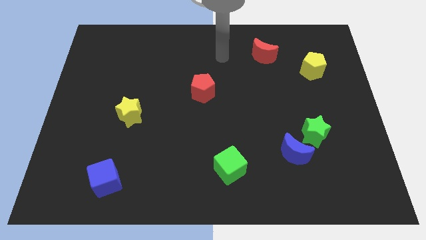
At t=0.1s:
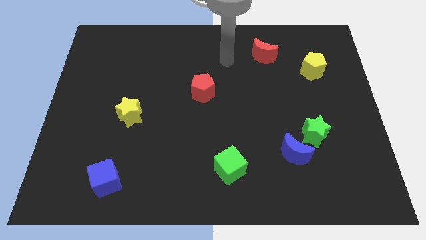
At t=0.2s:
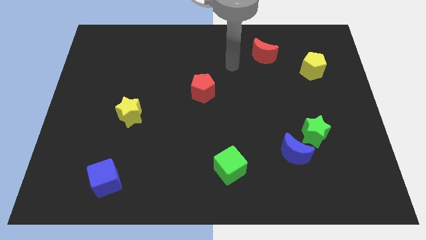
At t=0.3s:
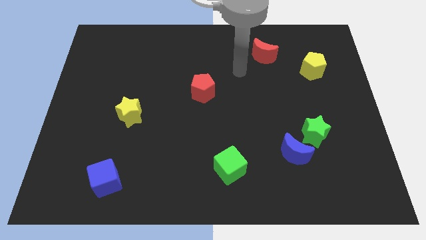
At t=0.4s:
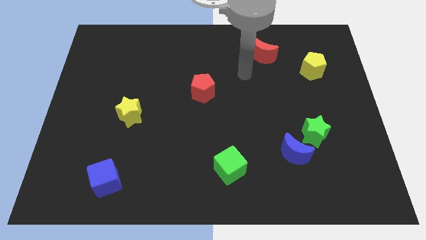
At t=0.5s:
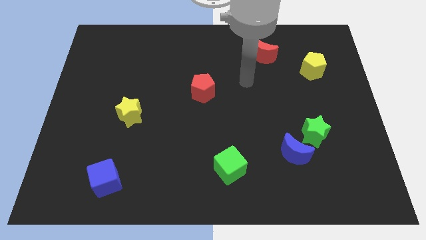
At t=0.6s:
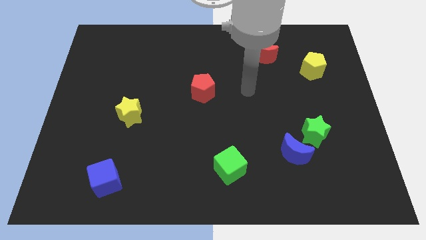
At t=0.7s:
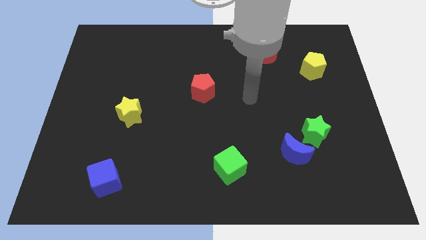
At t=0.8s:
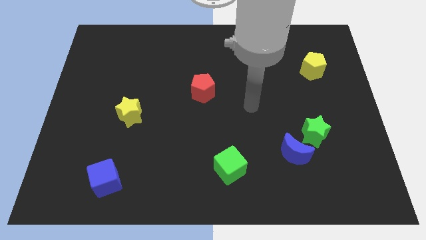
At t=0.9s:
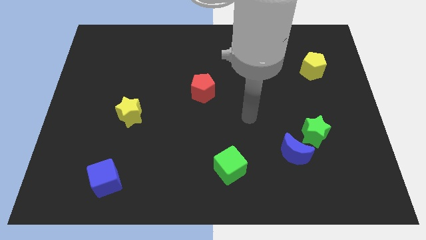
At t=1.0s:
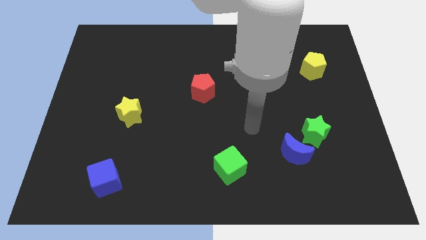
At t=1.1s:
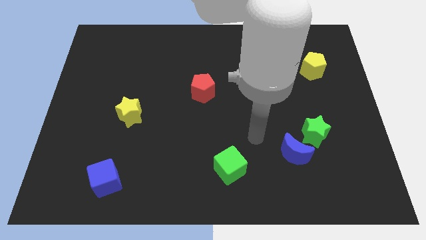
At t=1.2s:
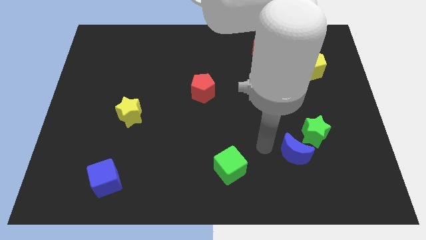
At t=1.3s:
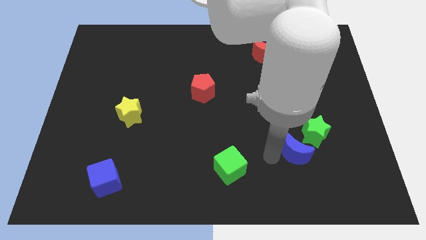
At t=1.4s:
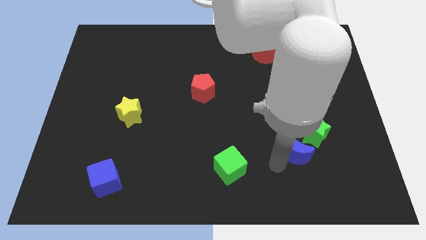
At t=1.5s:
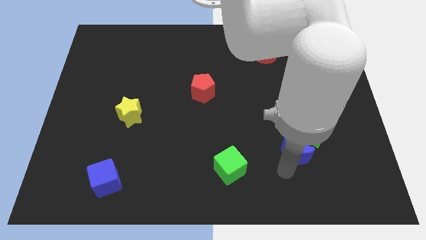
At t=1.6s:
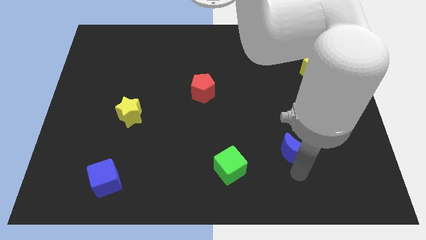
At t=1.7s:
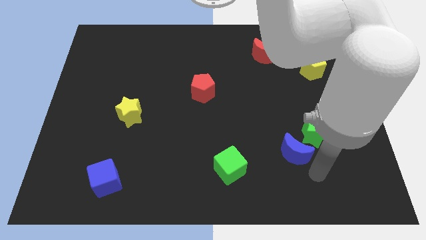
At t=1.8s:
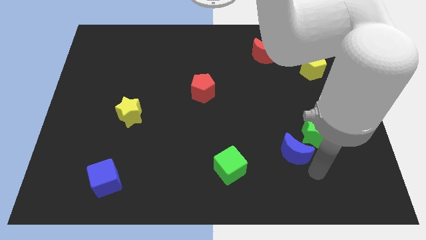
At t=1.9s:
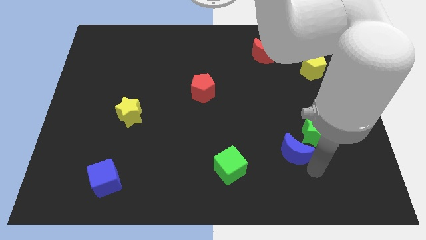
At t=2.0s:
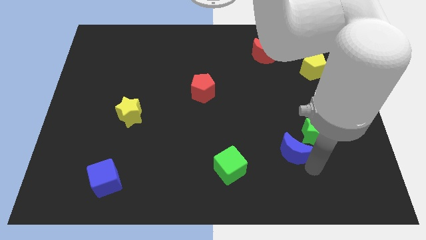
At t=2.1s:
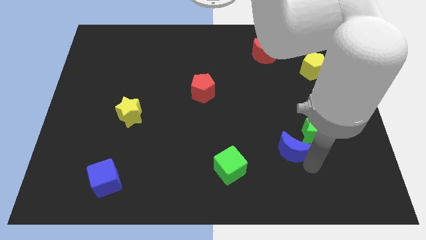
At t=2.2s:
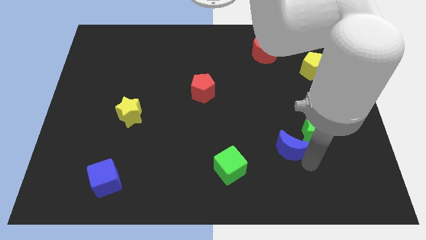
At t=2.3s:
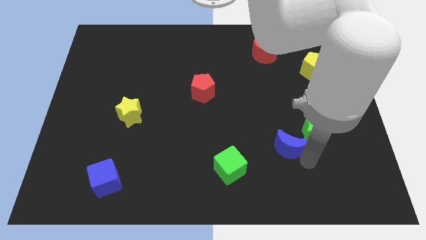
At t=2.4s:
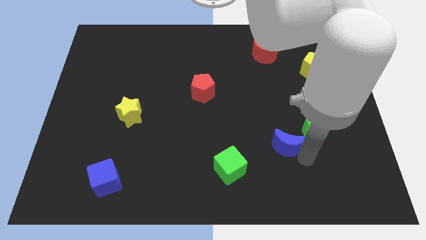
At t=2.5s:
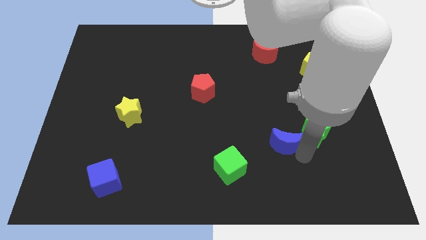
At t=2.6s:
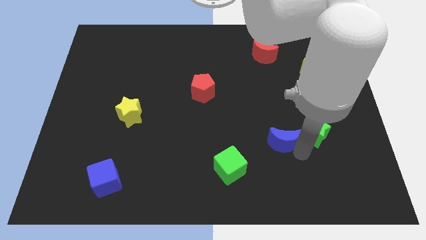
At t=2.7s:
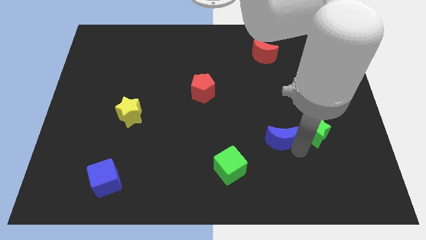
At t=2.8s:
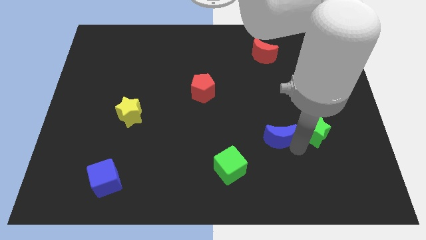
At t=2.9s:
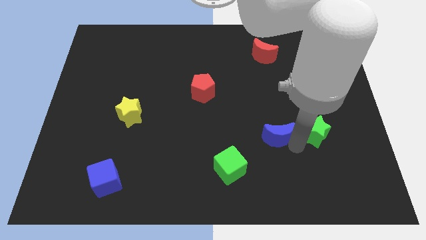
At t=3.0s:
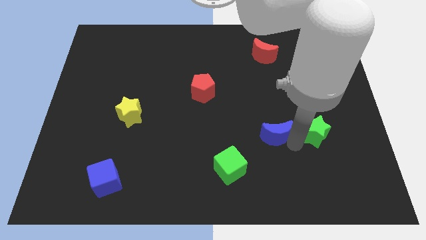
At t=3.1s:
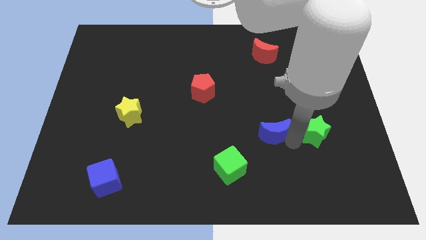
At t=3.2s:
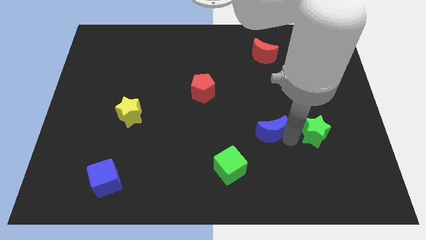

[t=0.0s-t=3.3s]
push the blue moon upwards and left diagonally a bit

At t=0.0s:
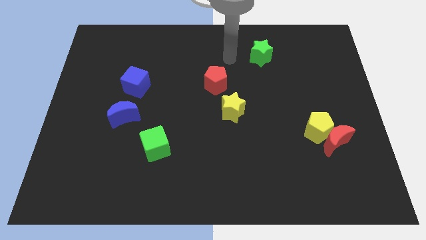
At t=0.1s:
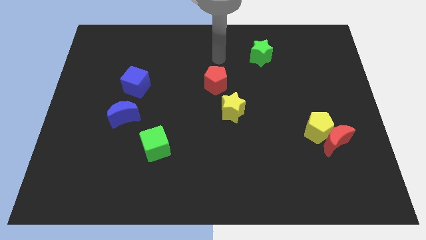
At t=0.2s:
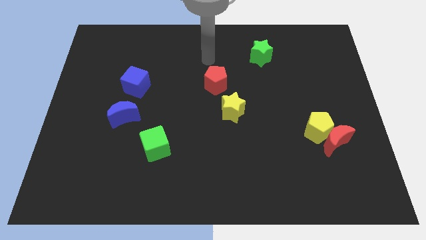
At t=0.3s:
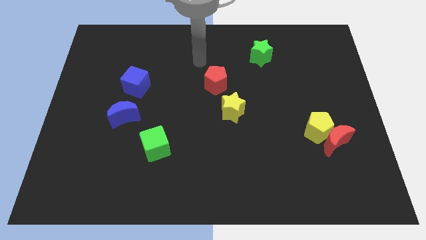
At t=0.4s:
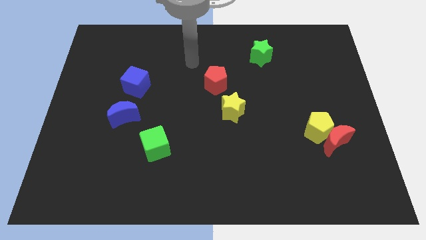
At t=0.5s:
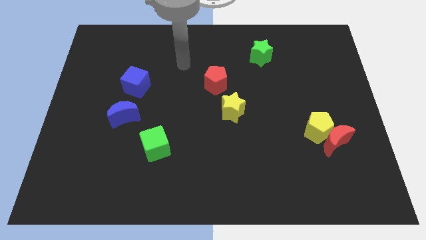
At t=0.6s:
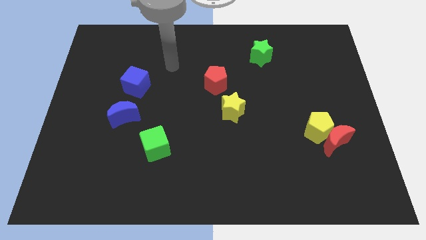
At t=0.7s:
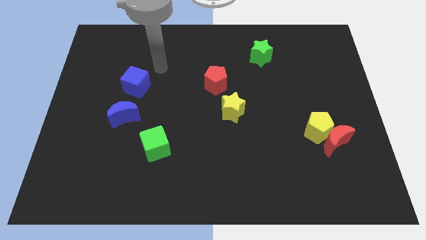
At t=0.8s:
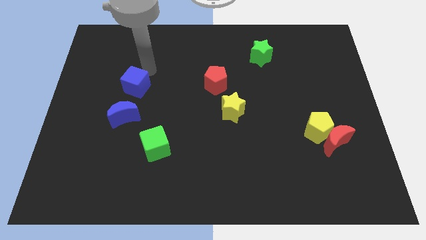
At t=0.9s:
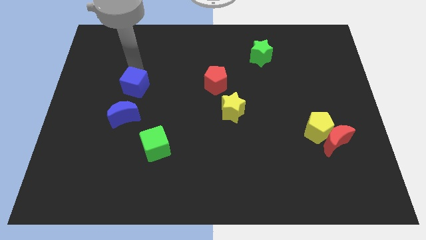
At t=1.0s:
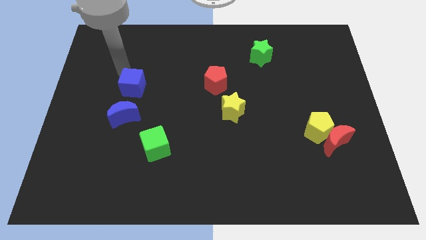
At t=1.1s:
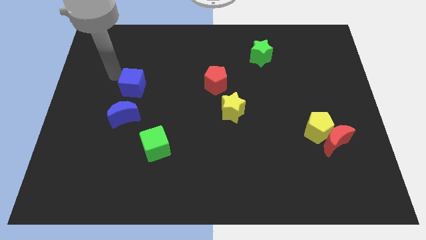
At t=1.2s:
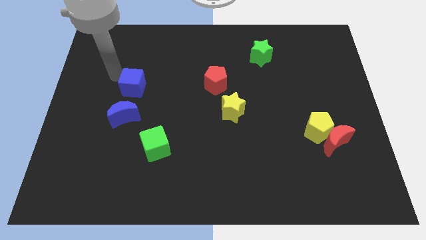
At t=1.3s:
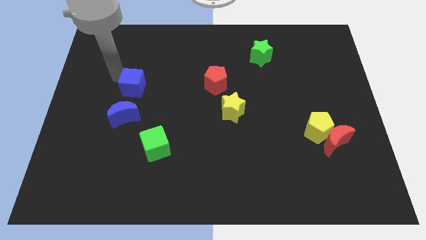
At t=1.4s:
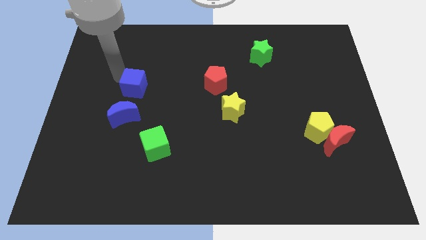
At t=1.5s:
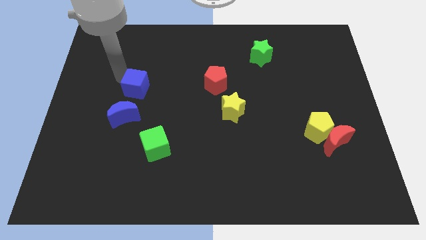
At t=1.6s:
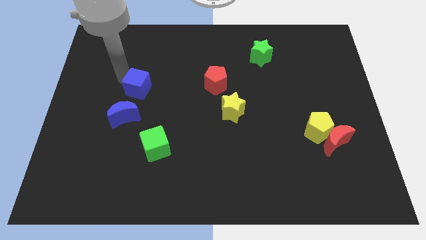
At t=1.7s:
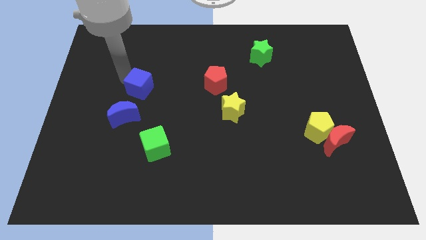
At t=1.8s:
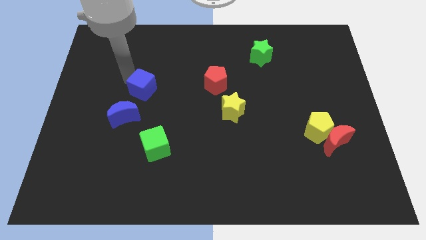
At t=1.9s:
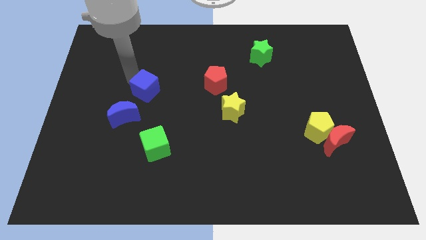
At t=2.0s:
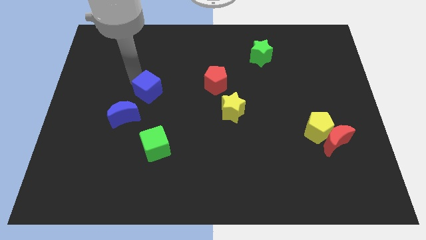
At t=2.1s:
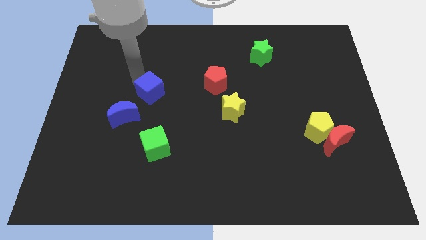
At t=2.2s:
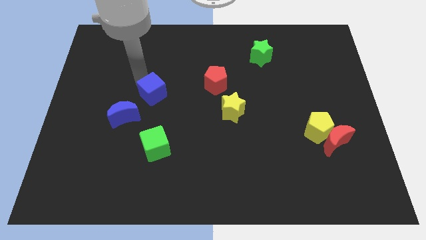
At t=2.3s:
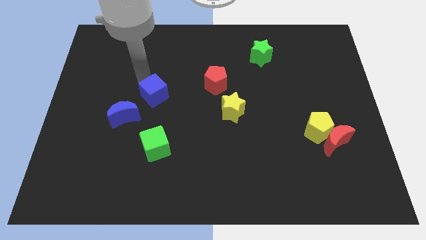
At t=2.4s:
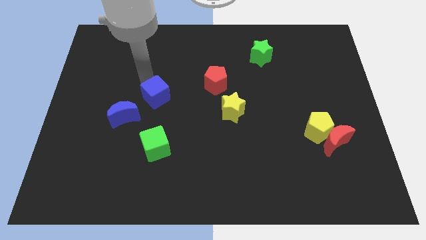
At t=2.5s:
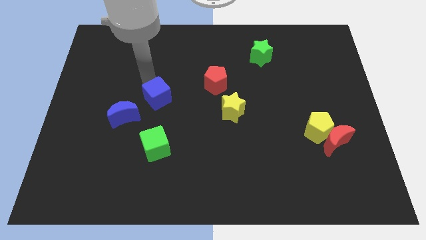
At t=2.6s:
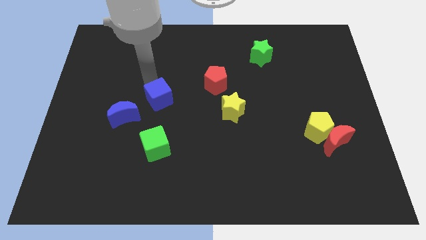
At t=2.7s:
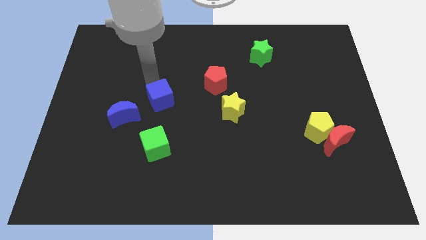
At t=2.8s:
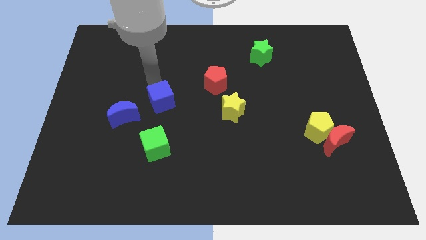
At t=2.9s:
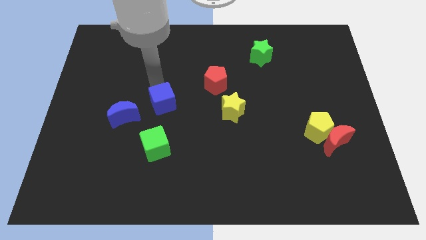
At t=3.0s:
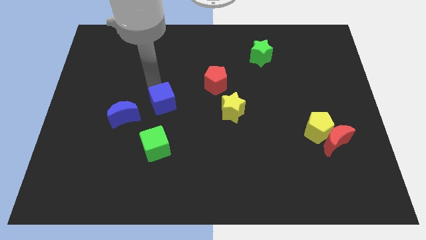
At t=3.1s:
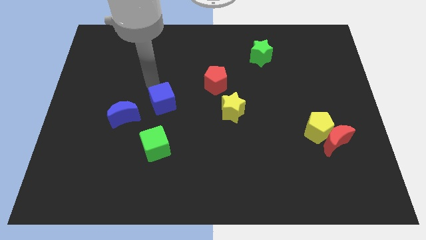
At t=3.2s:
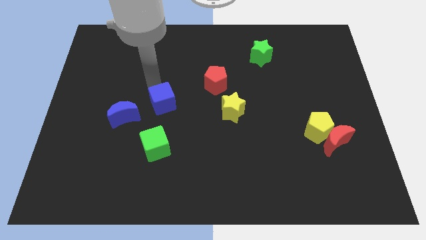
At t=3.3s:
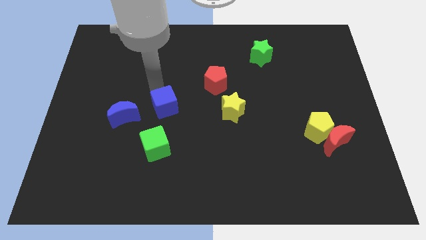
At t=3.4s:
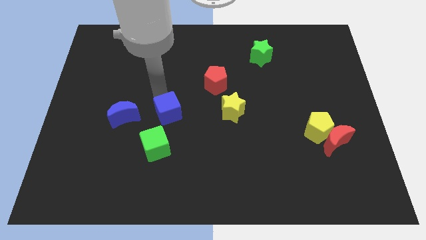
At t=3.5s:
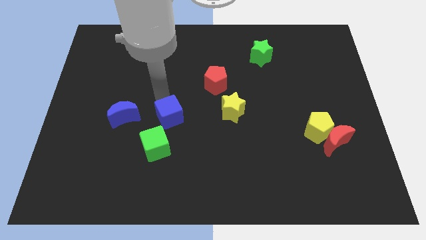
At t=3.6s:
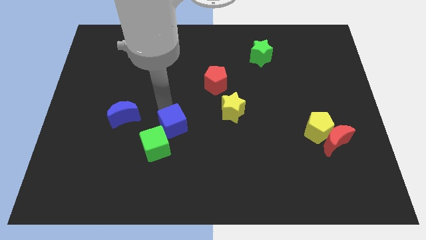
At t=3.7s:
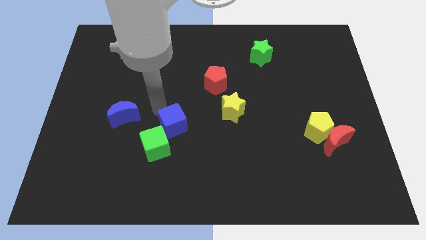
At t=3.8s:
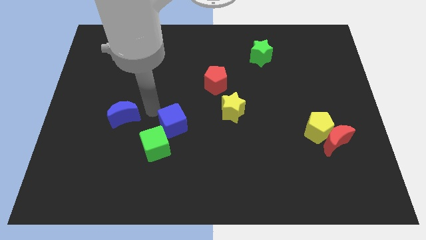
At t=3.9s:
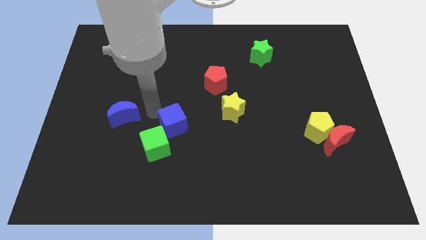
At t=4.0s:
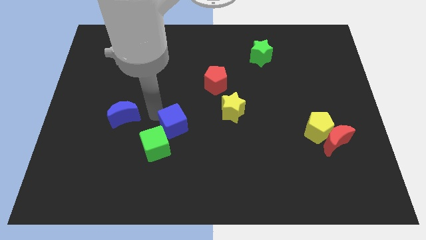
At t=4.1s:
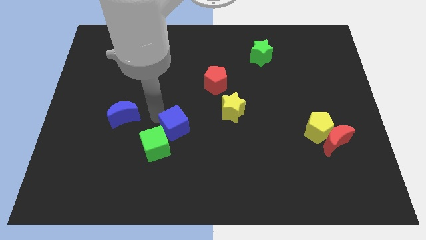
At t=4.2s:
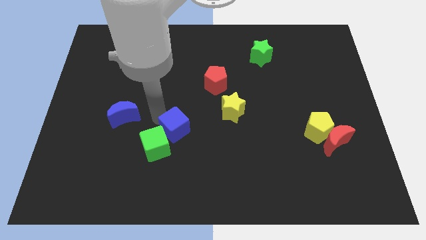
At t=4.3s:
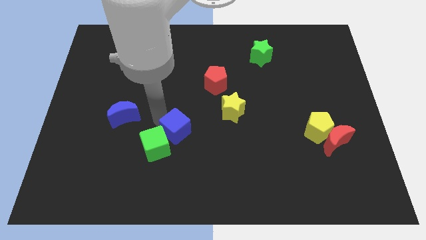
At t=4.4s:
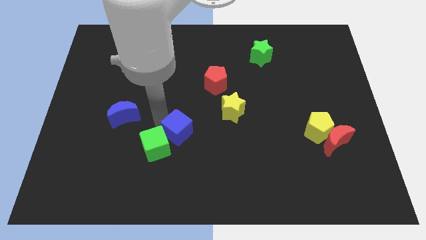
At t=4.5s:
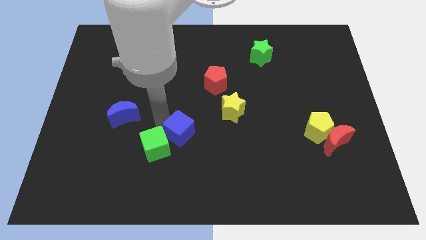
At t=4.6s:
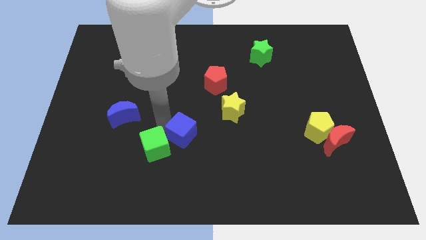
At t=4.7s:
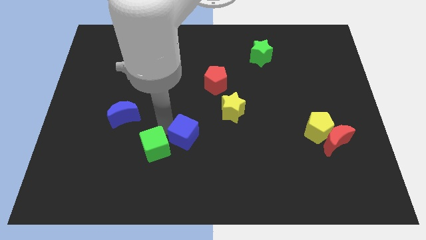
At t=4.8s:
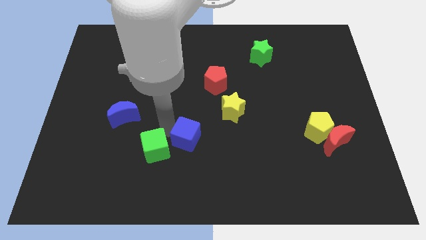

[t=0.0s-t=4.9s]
slide the blue cube diagonally downwards and right
